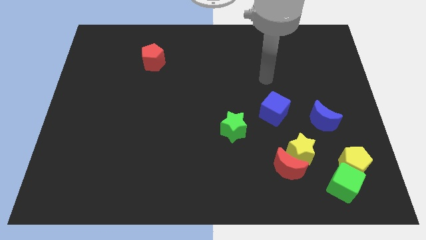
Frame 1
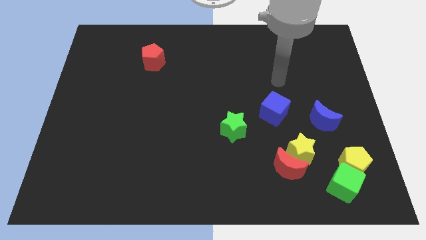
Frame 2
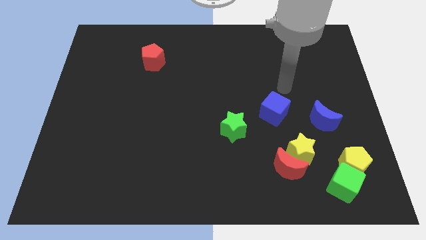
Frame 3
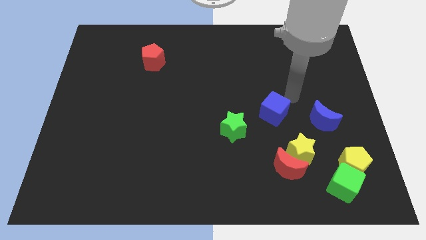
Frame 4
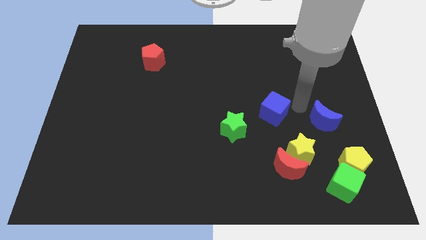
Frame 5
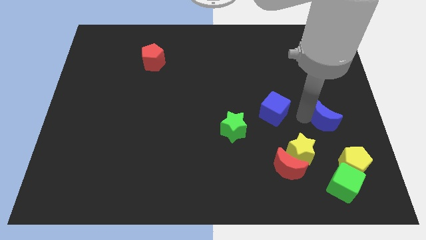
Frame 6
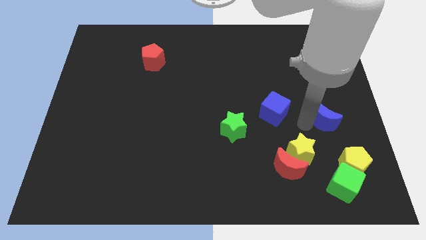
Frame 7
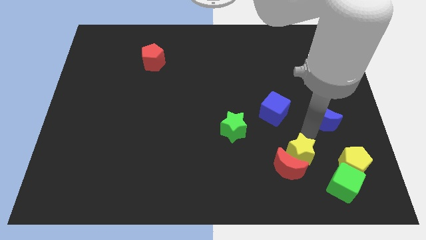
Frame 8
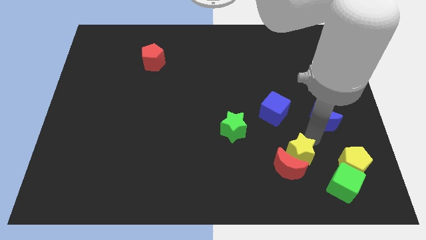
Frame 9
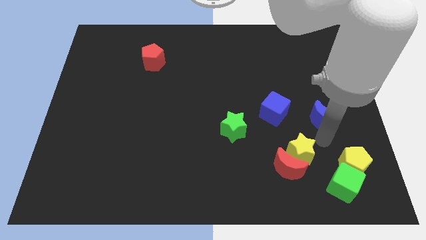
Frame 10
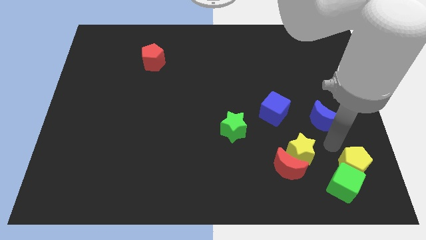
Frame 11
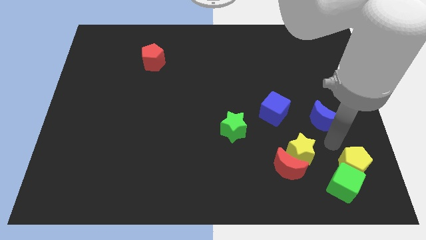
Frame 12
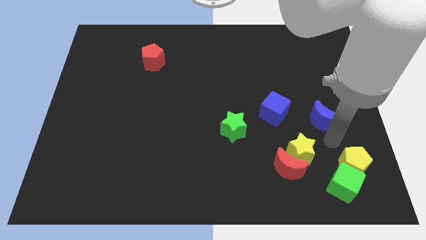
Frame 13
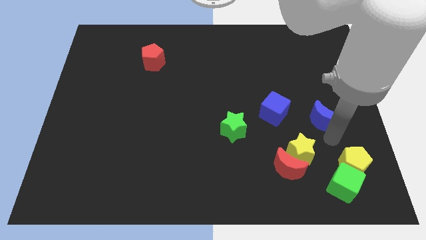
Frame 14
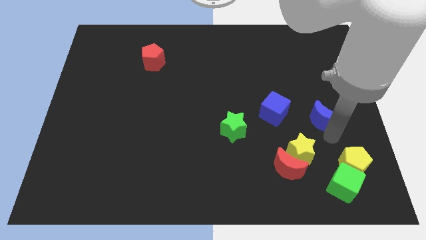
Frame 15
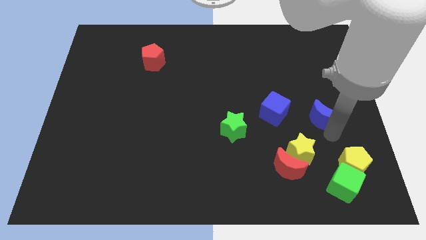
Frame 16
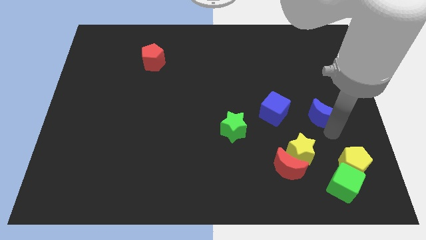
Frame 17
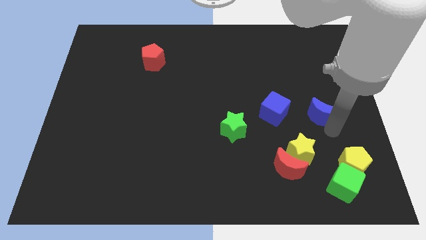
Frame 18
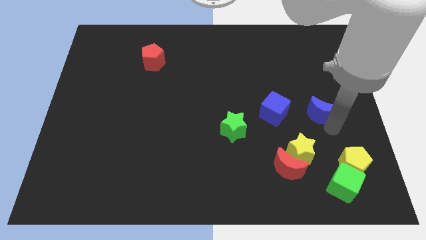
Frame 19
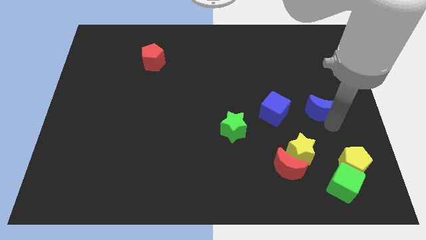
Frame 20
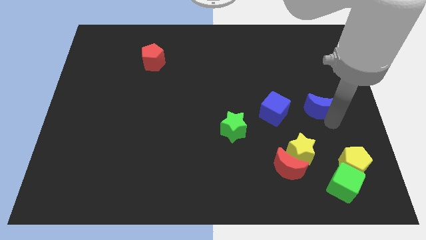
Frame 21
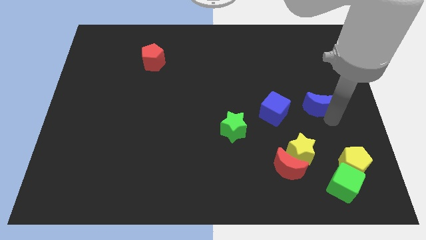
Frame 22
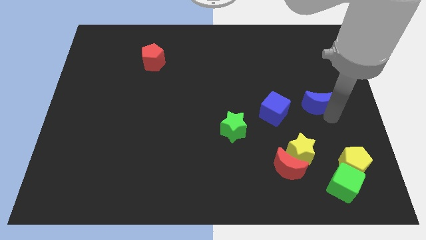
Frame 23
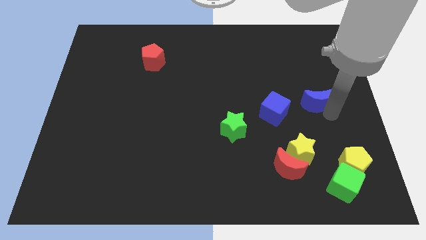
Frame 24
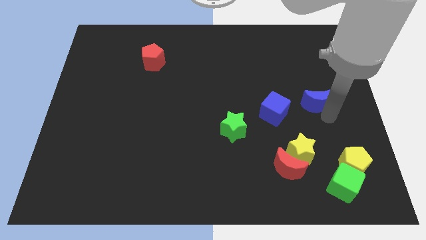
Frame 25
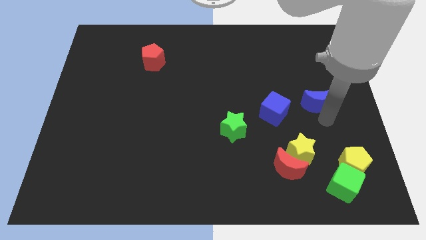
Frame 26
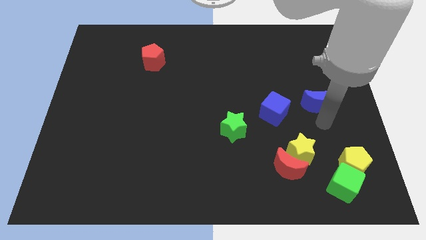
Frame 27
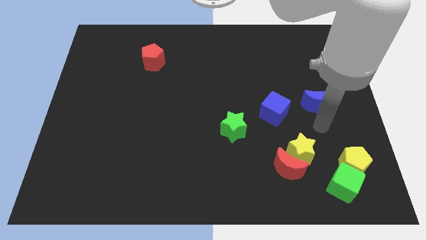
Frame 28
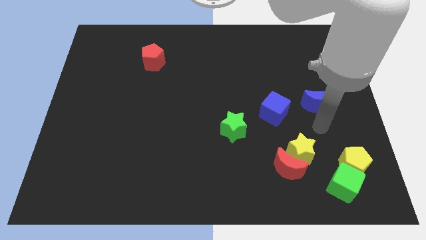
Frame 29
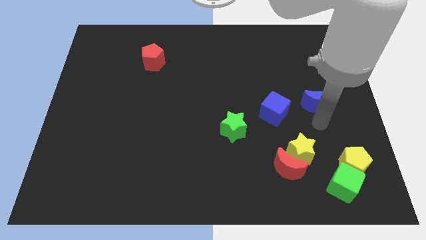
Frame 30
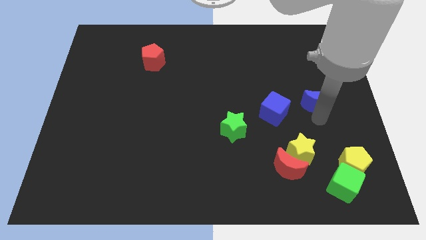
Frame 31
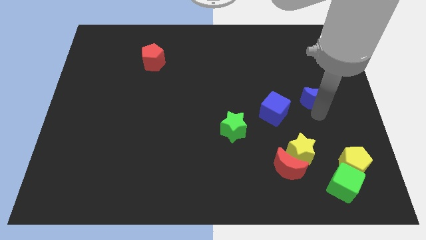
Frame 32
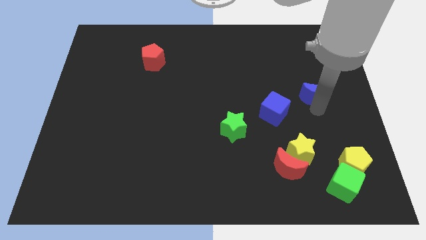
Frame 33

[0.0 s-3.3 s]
slide the blue moon up slightly

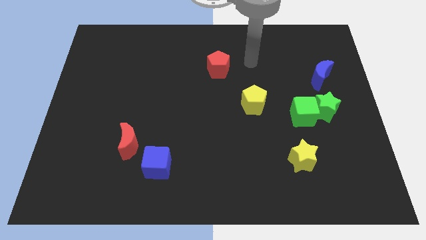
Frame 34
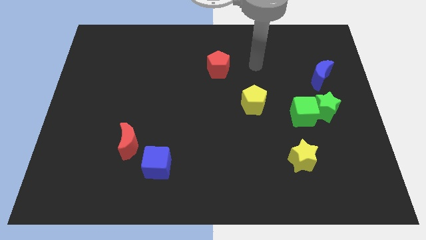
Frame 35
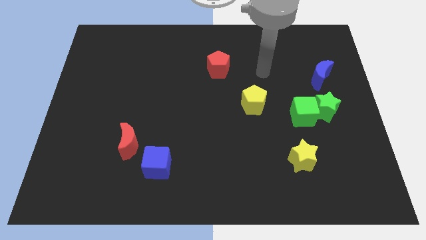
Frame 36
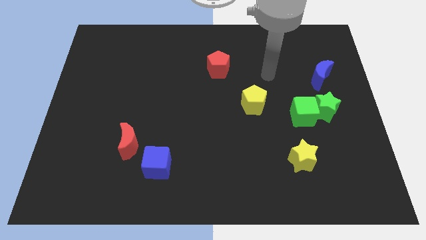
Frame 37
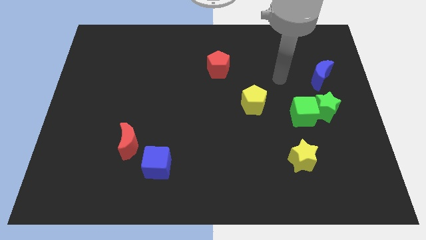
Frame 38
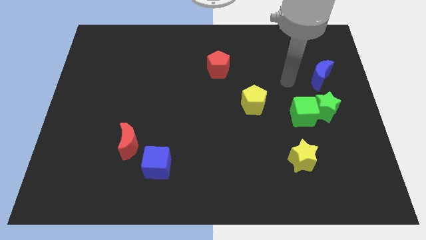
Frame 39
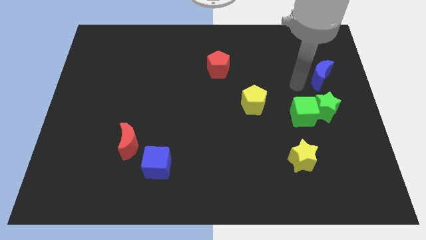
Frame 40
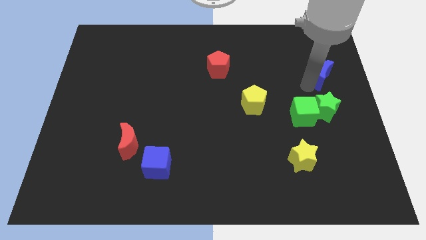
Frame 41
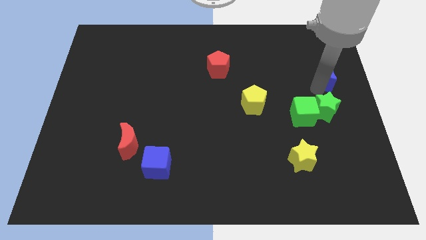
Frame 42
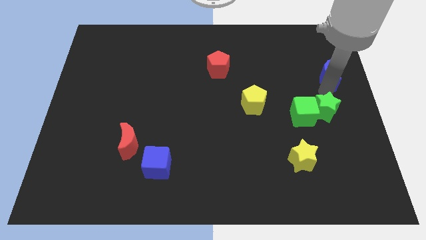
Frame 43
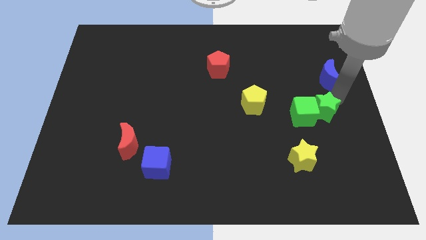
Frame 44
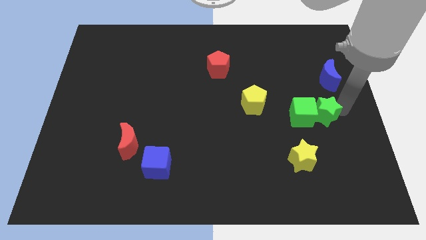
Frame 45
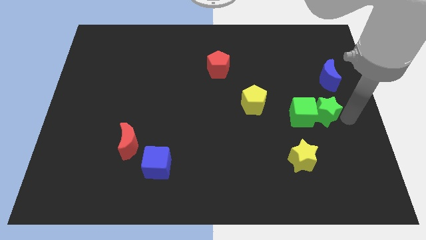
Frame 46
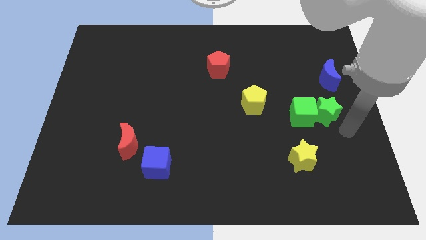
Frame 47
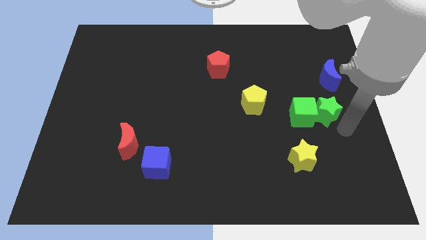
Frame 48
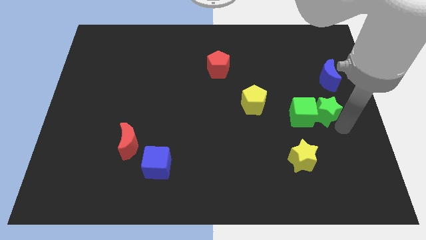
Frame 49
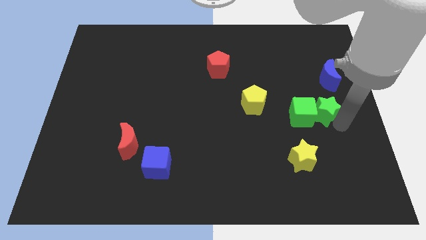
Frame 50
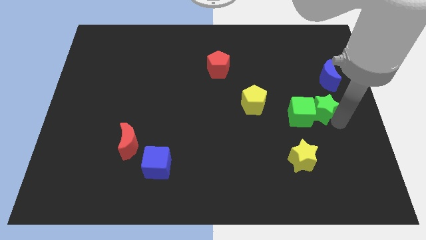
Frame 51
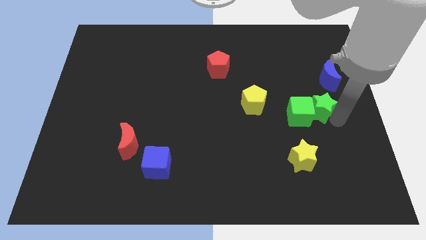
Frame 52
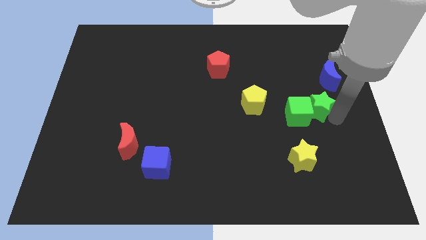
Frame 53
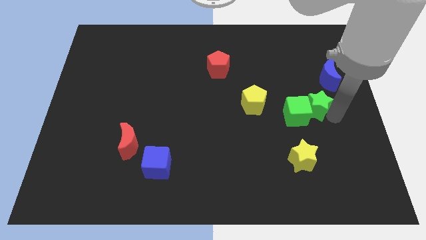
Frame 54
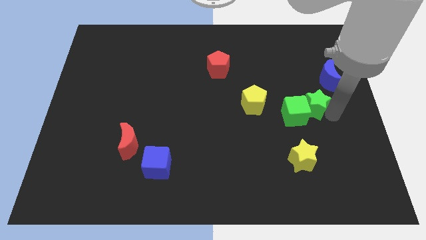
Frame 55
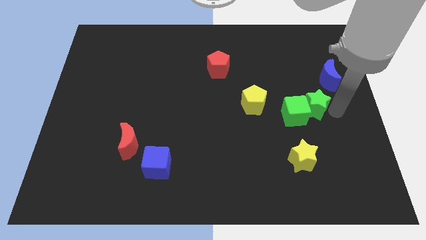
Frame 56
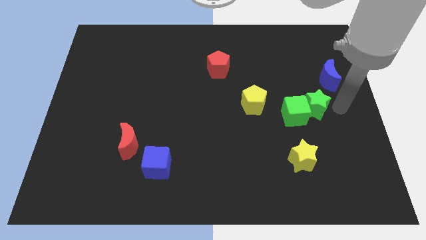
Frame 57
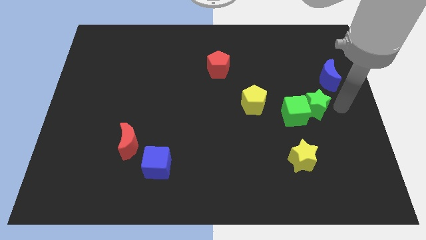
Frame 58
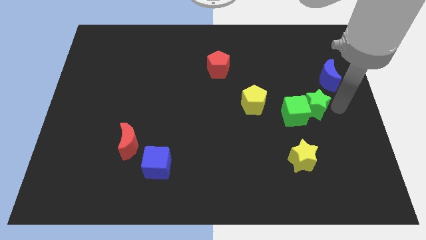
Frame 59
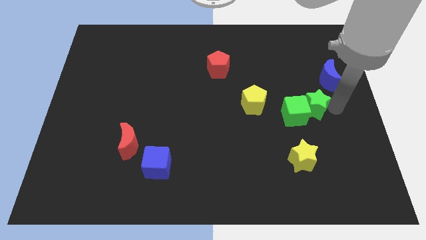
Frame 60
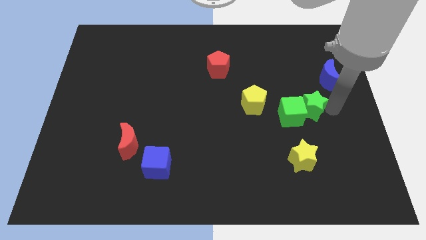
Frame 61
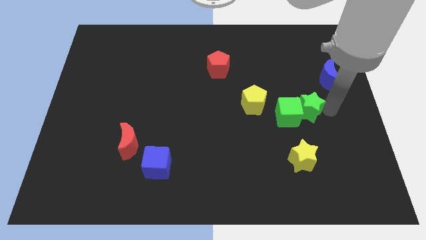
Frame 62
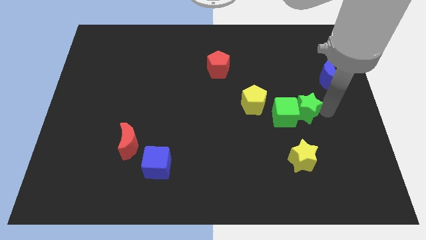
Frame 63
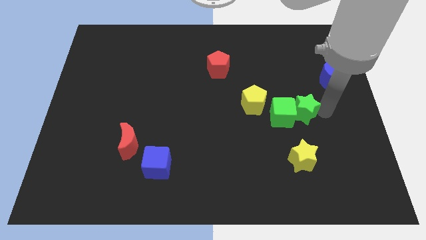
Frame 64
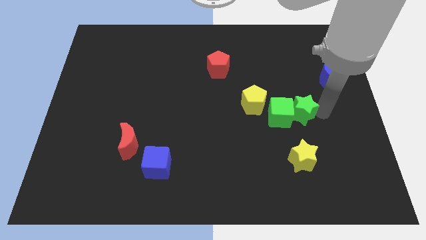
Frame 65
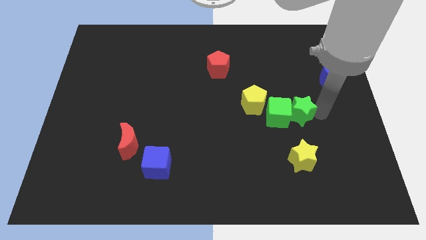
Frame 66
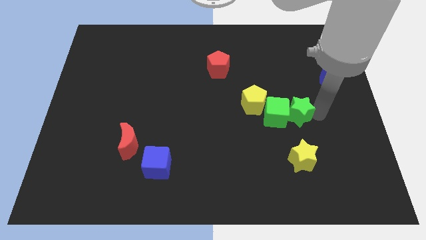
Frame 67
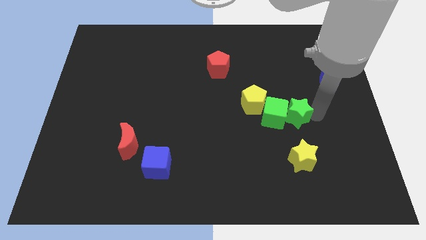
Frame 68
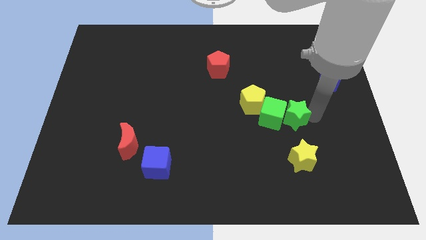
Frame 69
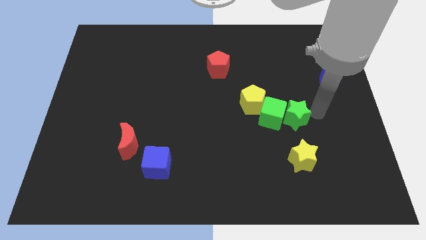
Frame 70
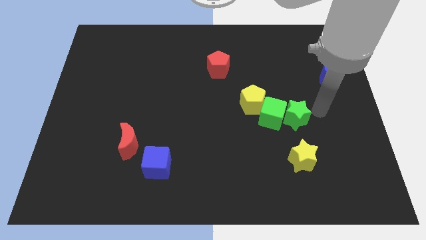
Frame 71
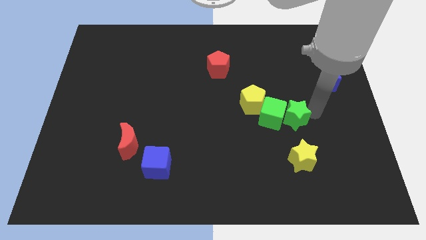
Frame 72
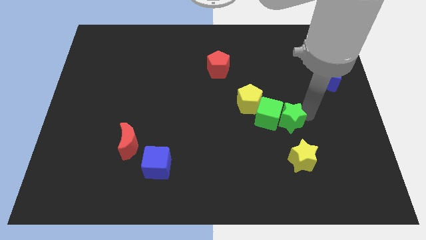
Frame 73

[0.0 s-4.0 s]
slightly push the green star diagonally downwards and left

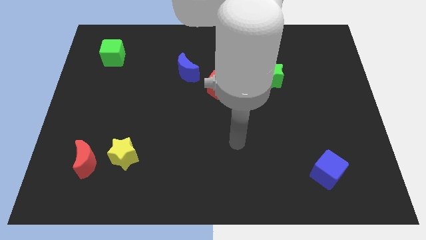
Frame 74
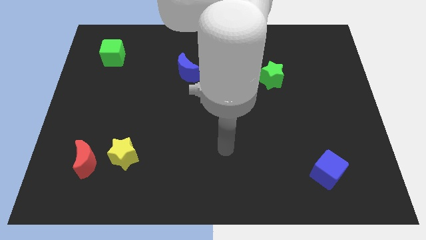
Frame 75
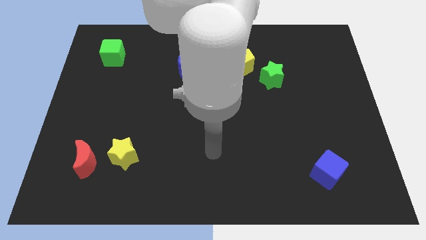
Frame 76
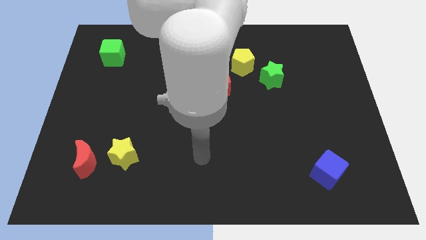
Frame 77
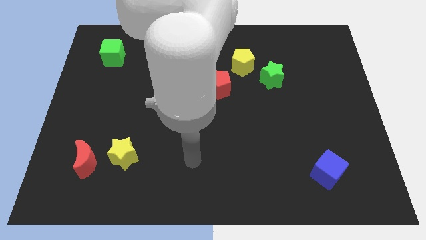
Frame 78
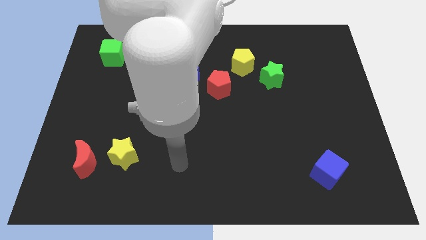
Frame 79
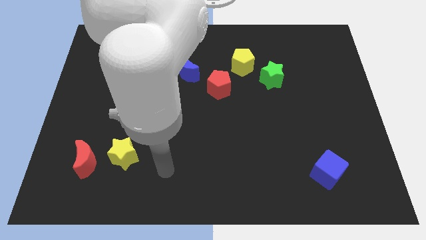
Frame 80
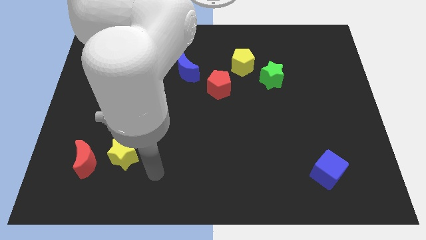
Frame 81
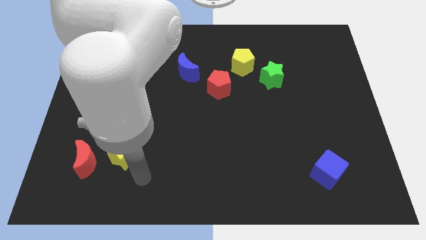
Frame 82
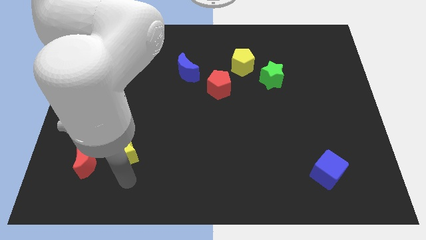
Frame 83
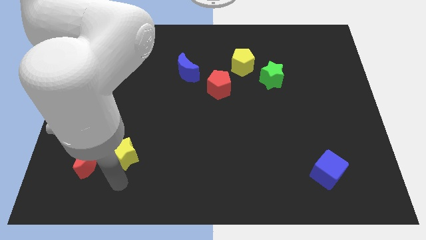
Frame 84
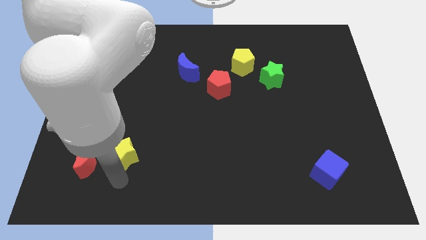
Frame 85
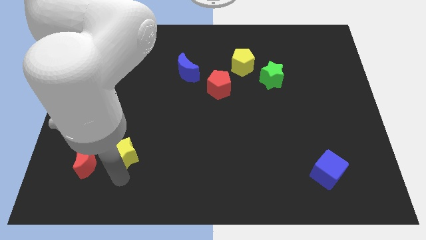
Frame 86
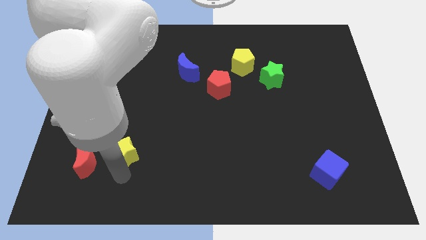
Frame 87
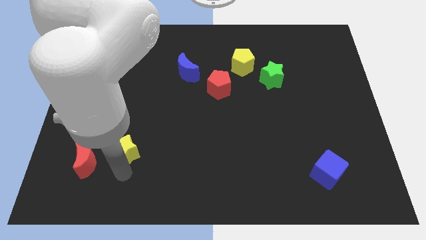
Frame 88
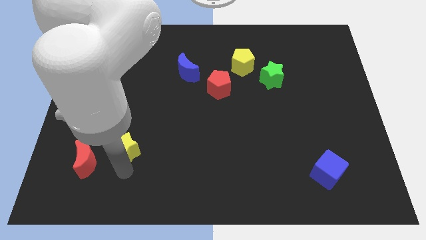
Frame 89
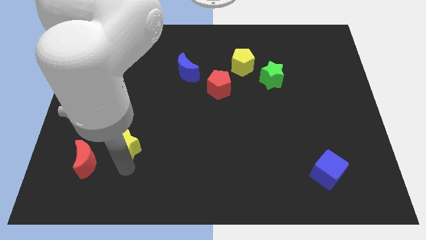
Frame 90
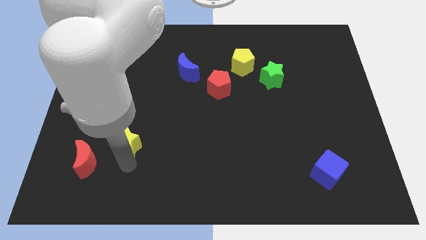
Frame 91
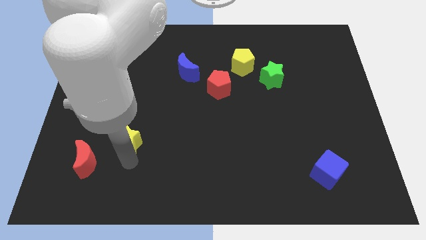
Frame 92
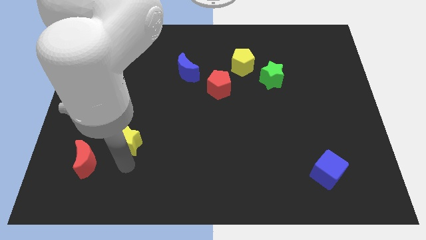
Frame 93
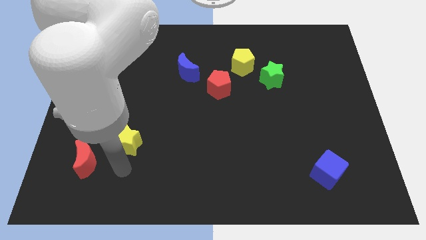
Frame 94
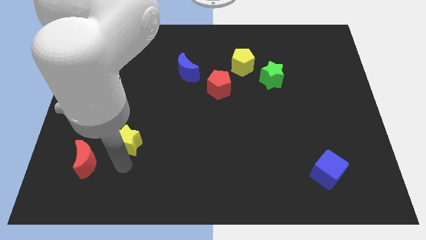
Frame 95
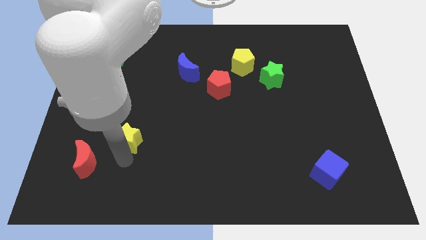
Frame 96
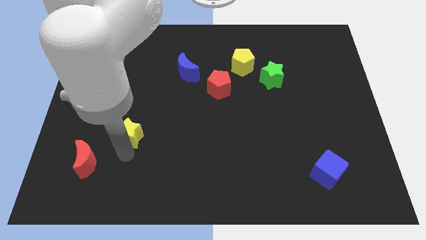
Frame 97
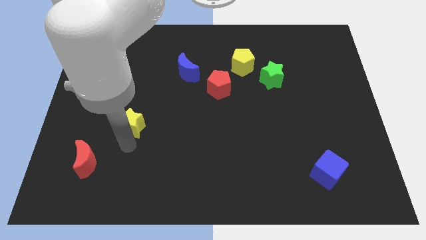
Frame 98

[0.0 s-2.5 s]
slide the yellow star up a bit
